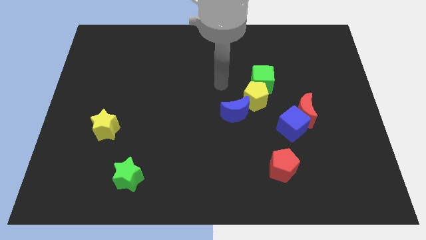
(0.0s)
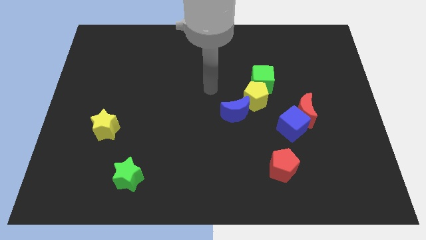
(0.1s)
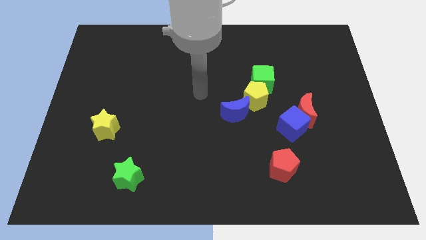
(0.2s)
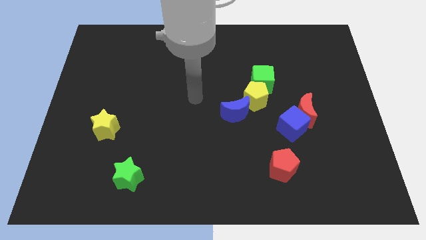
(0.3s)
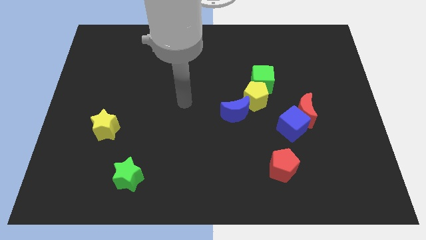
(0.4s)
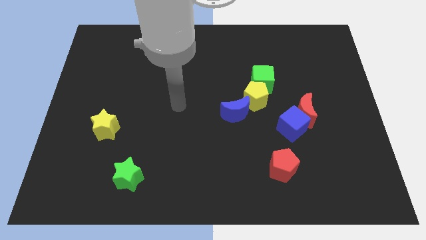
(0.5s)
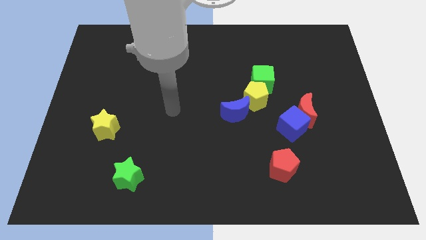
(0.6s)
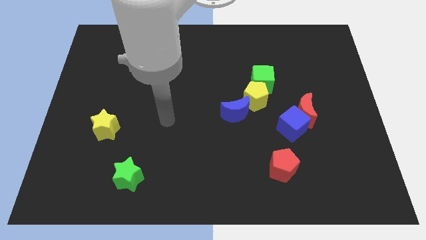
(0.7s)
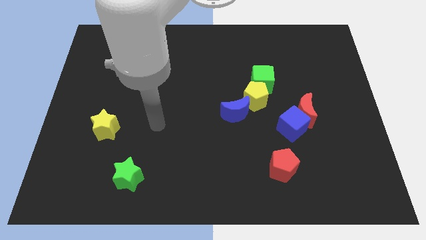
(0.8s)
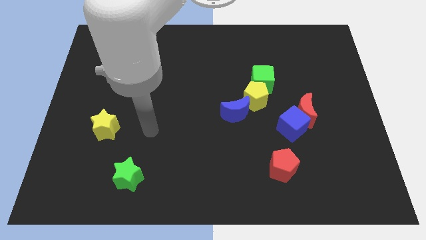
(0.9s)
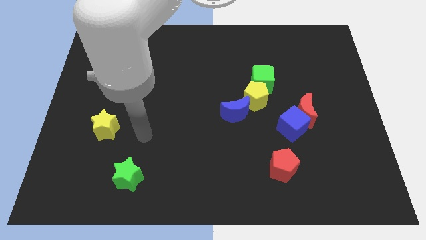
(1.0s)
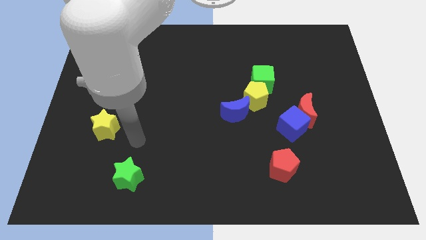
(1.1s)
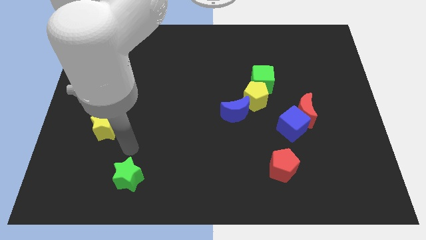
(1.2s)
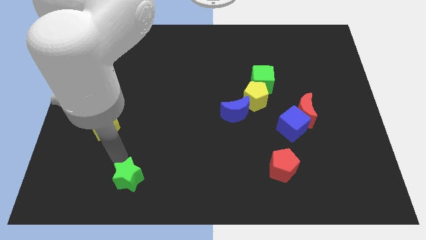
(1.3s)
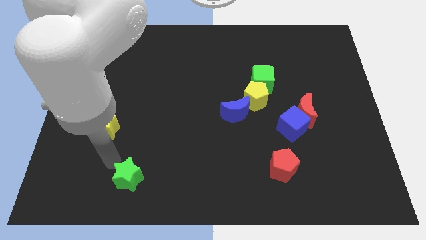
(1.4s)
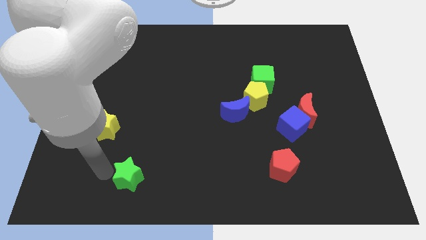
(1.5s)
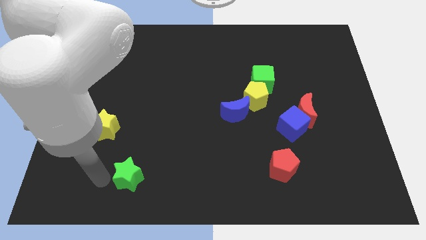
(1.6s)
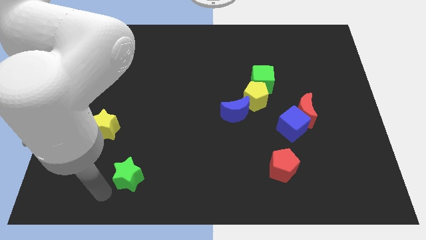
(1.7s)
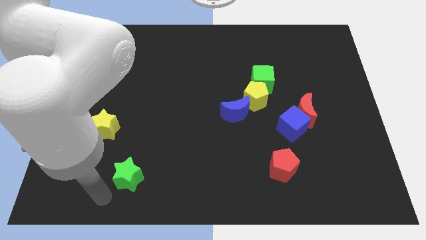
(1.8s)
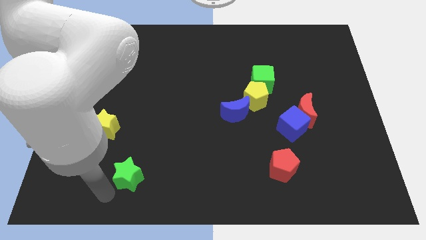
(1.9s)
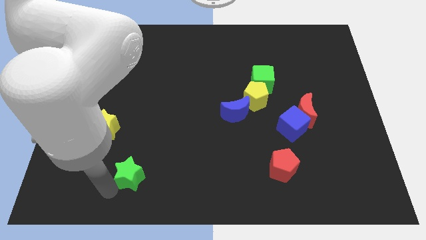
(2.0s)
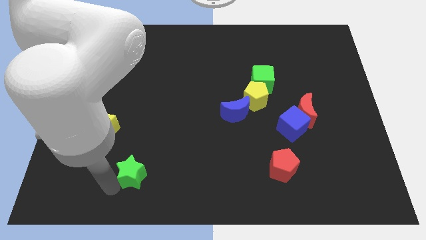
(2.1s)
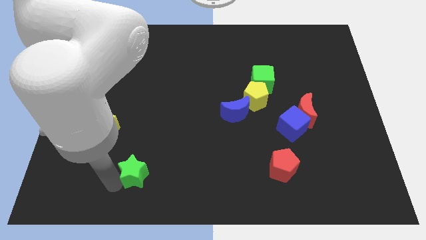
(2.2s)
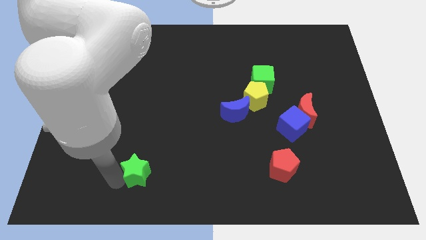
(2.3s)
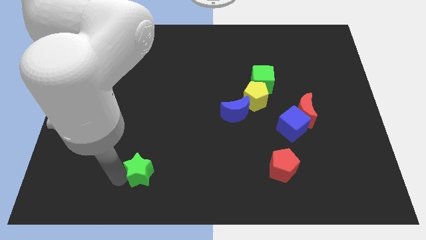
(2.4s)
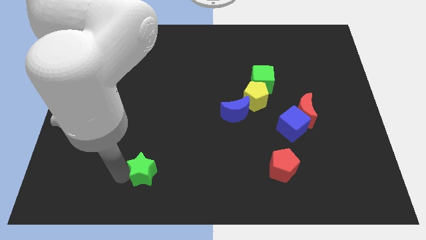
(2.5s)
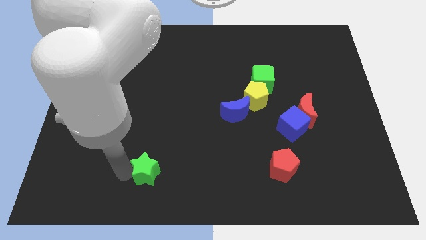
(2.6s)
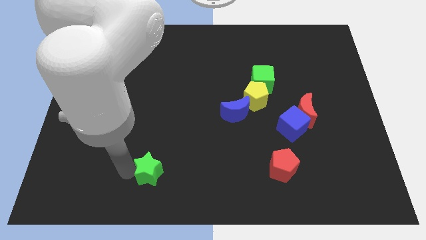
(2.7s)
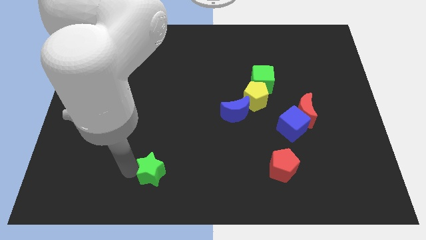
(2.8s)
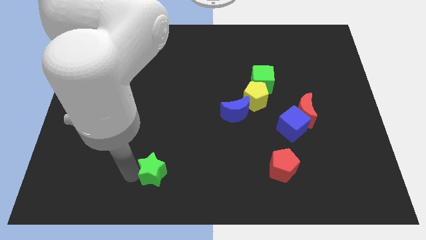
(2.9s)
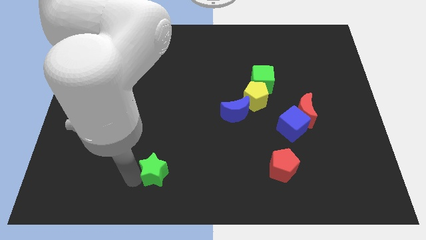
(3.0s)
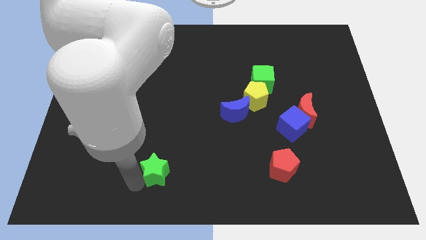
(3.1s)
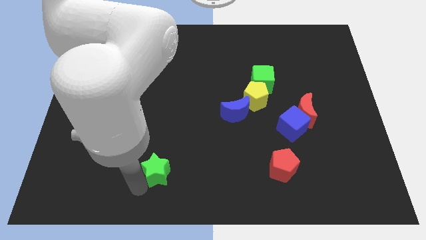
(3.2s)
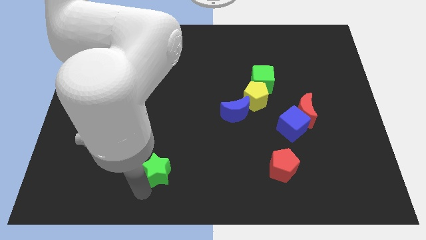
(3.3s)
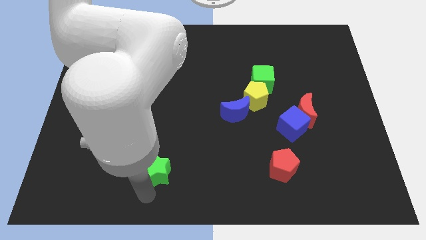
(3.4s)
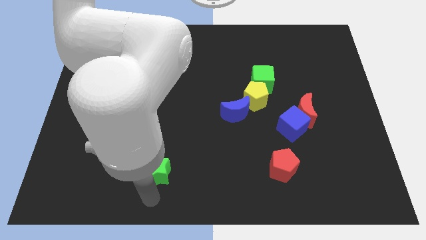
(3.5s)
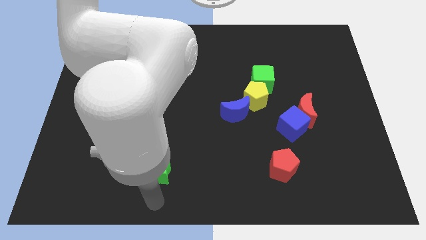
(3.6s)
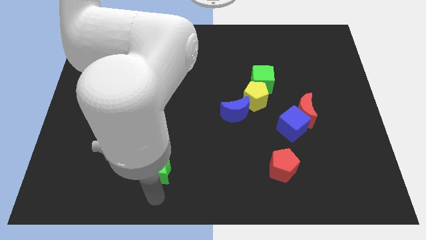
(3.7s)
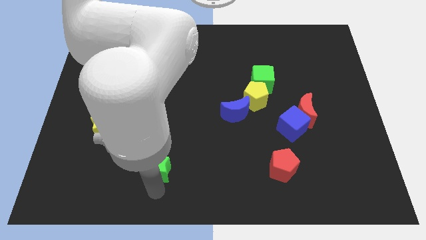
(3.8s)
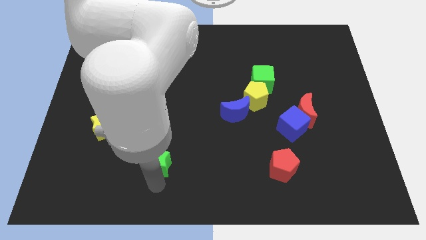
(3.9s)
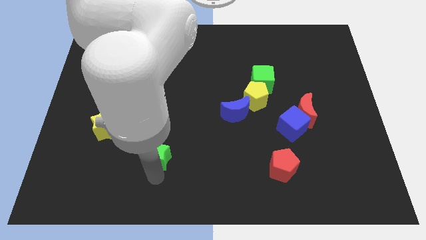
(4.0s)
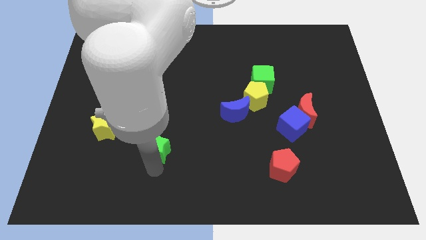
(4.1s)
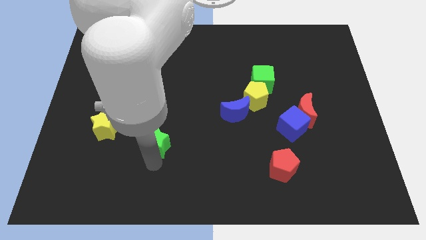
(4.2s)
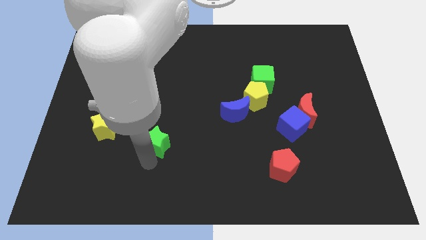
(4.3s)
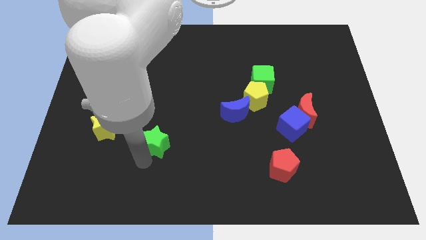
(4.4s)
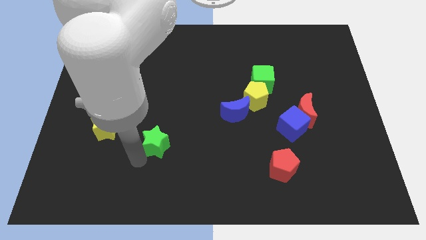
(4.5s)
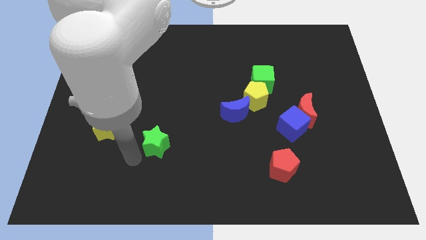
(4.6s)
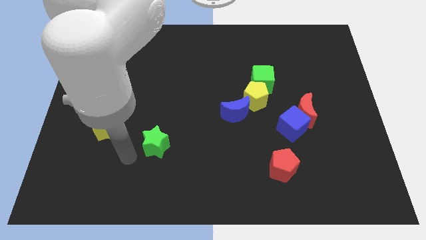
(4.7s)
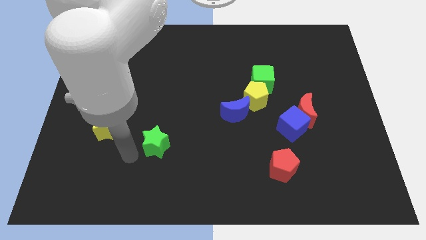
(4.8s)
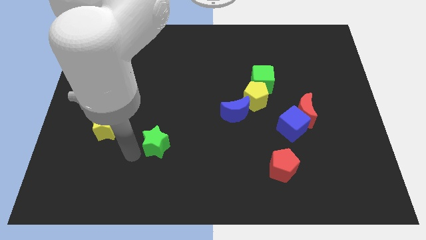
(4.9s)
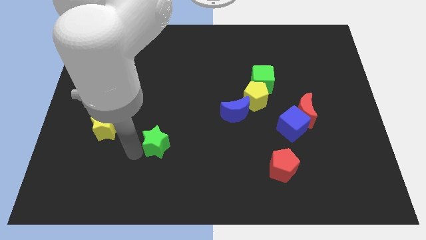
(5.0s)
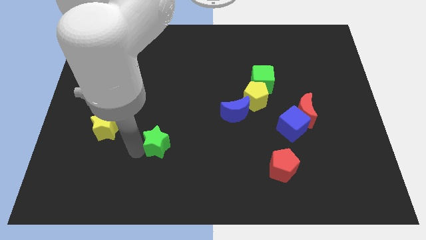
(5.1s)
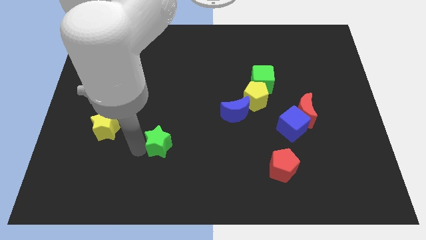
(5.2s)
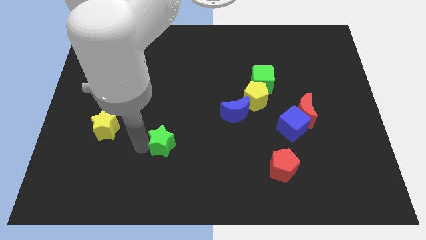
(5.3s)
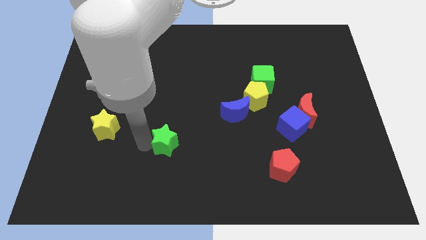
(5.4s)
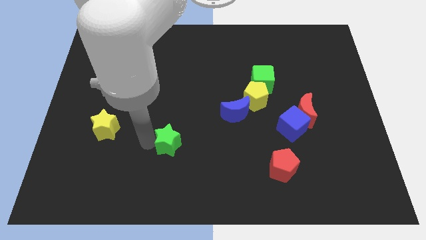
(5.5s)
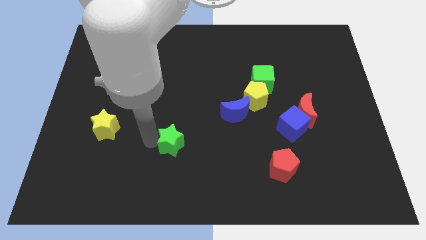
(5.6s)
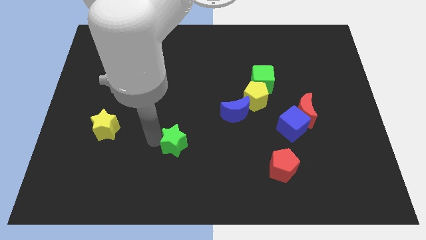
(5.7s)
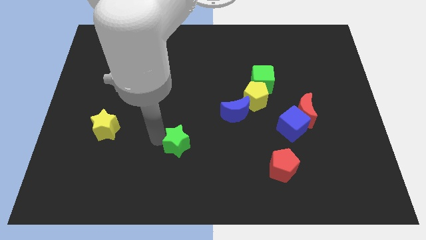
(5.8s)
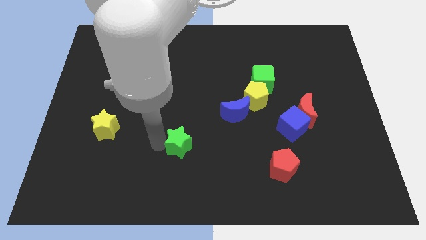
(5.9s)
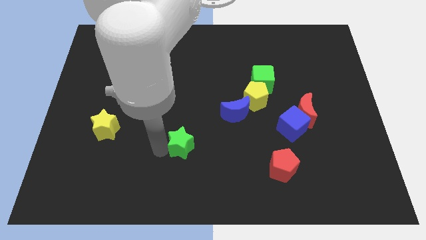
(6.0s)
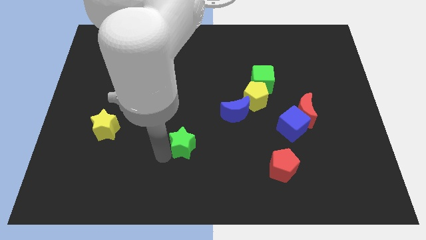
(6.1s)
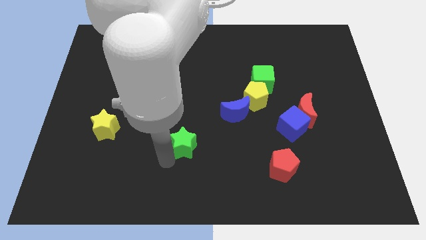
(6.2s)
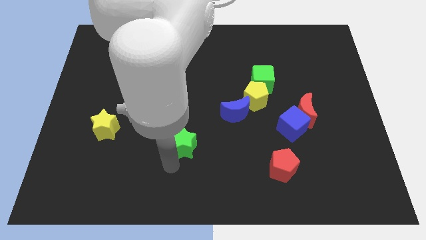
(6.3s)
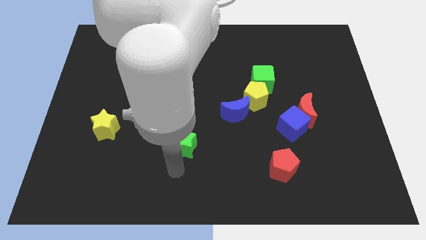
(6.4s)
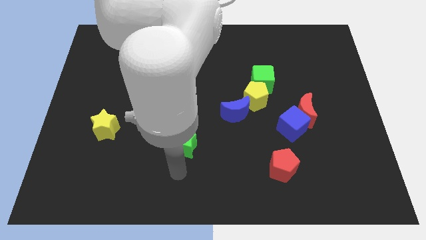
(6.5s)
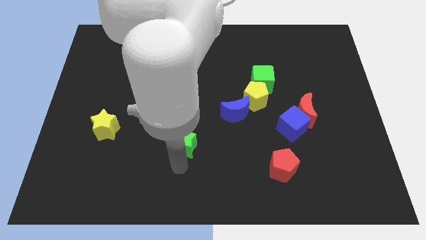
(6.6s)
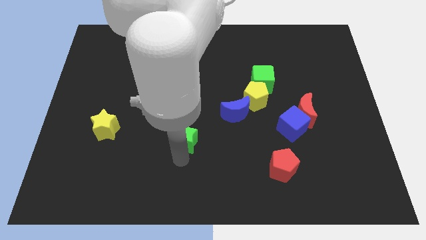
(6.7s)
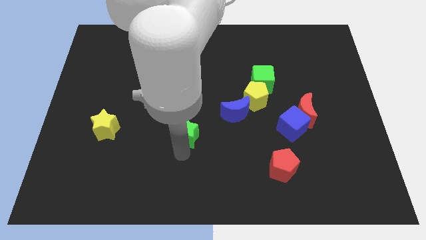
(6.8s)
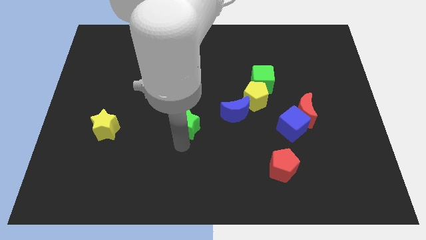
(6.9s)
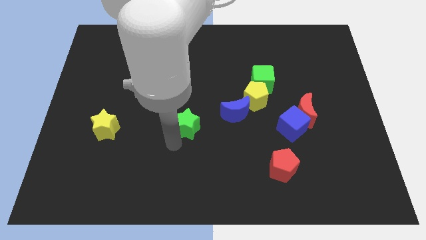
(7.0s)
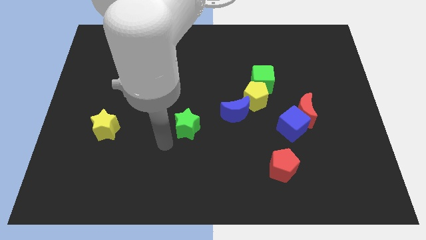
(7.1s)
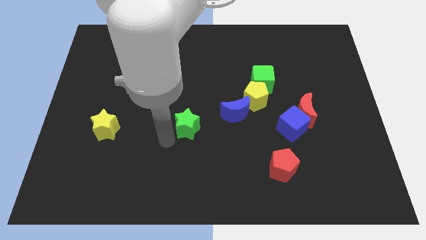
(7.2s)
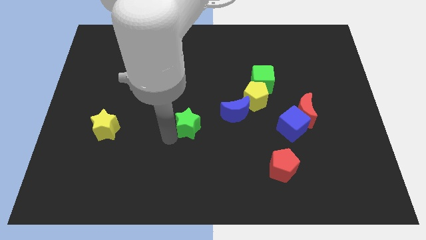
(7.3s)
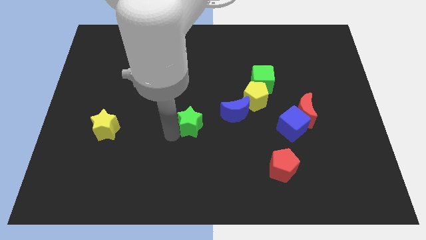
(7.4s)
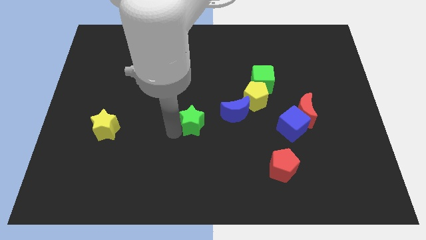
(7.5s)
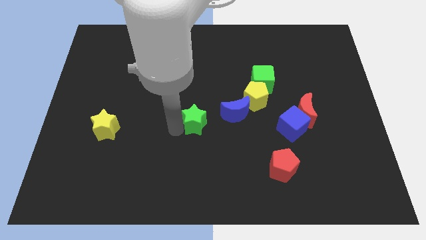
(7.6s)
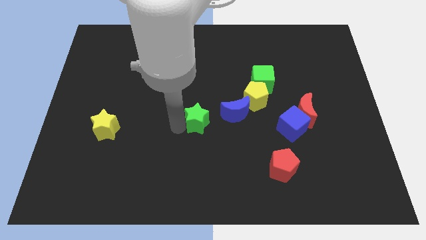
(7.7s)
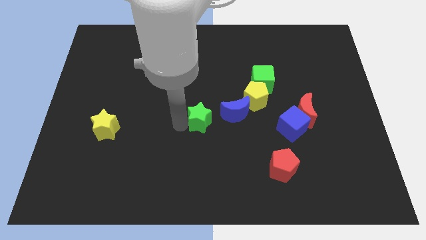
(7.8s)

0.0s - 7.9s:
move the green star diagonally upwards and right

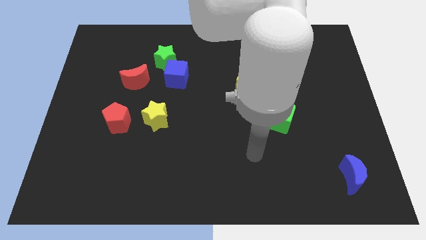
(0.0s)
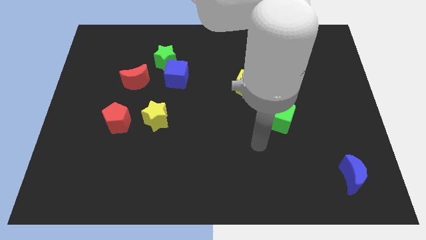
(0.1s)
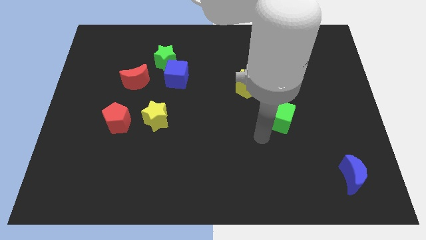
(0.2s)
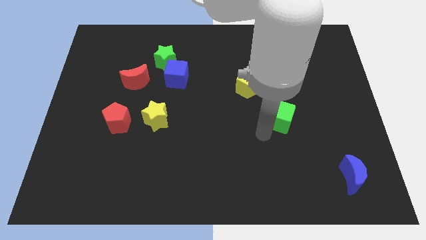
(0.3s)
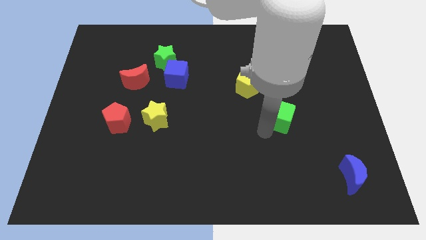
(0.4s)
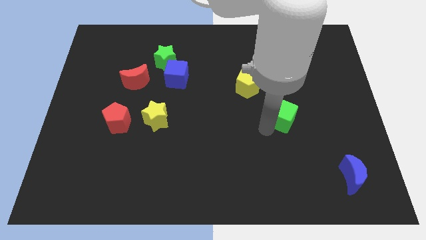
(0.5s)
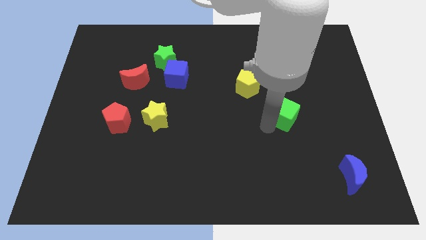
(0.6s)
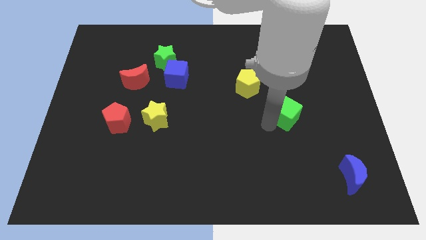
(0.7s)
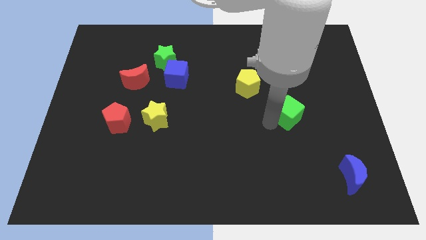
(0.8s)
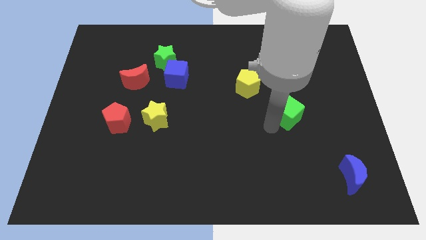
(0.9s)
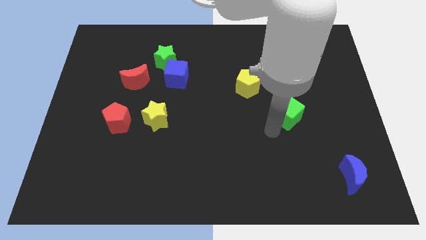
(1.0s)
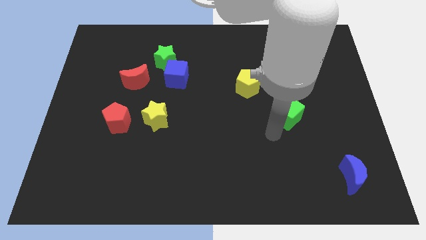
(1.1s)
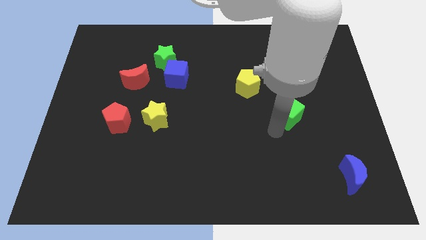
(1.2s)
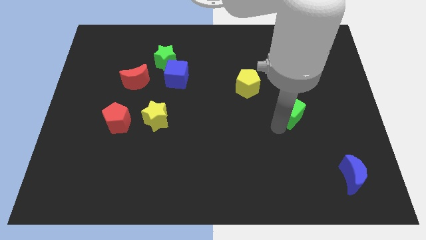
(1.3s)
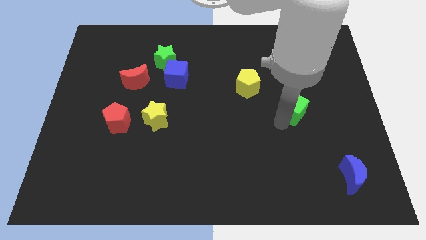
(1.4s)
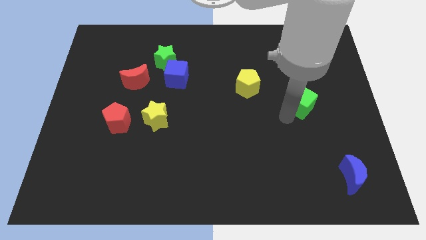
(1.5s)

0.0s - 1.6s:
move the green cube a little bit upwards and to the right diagonally
